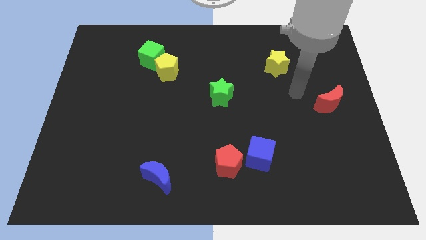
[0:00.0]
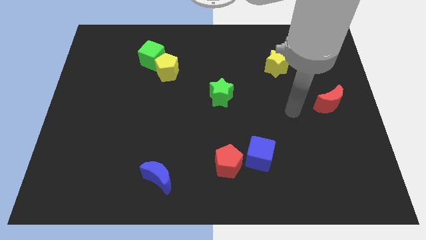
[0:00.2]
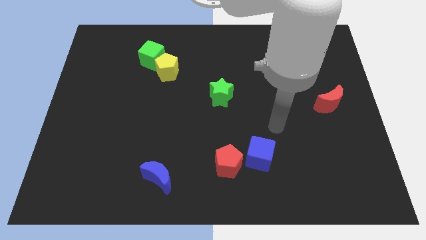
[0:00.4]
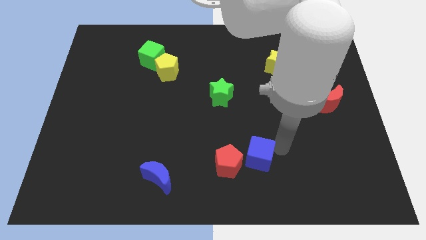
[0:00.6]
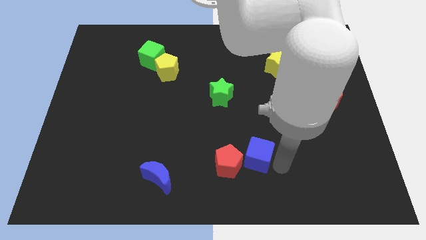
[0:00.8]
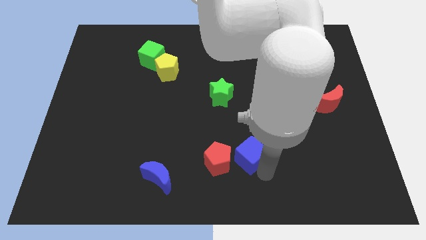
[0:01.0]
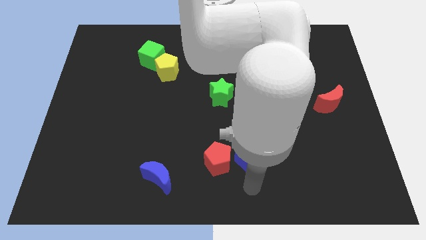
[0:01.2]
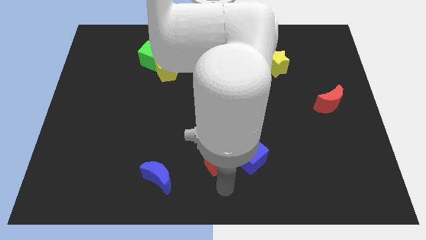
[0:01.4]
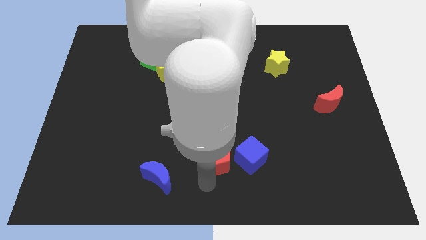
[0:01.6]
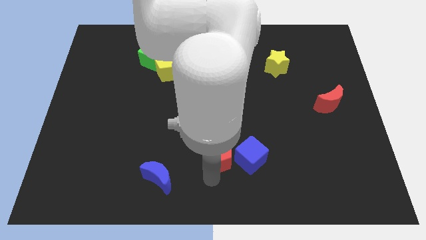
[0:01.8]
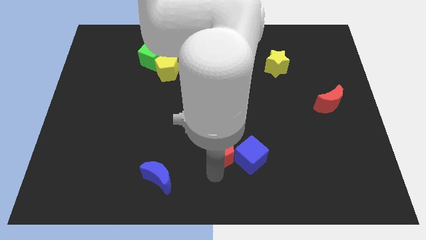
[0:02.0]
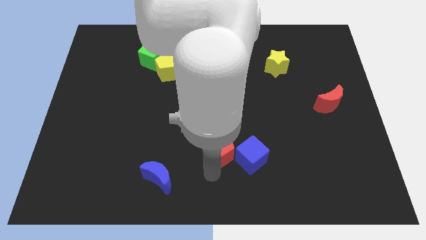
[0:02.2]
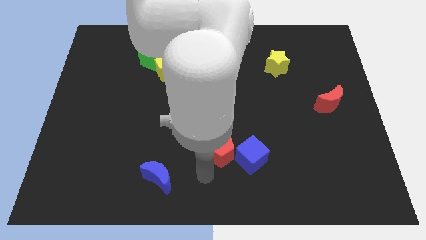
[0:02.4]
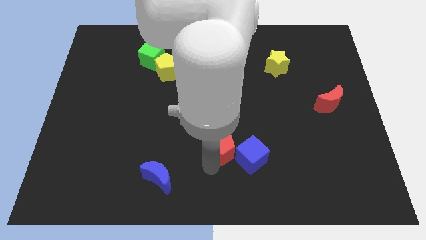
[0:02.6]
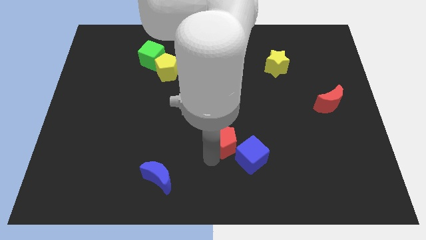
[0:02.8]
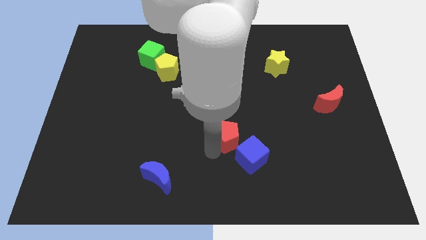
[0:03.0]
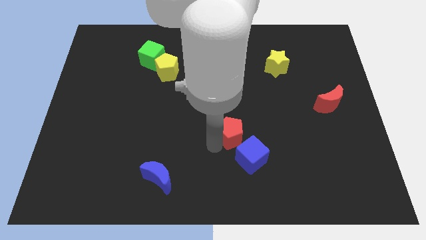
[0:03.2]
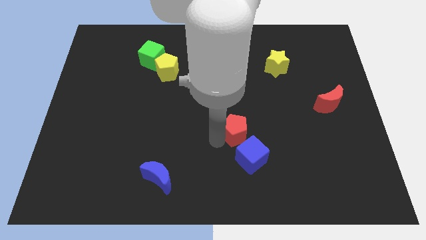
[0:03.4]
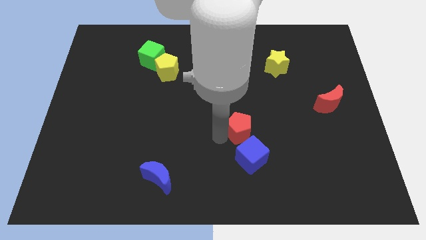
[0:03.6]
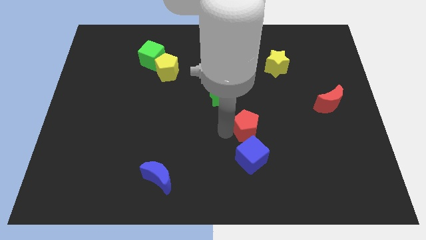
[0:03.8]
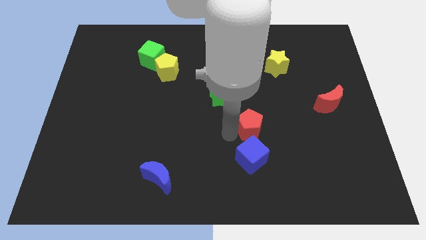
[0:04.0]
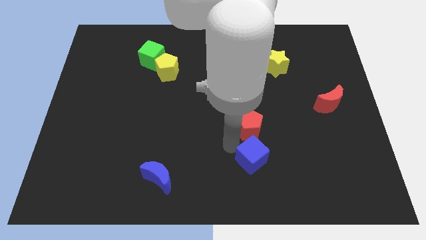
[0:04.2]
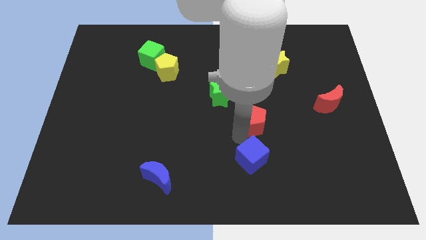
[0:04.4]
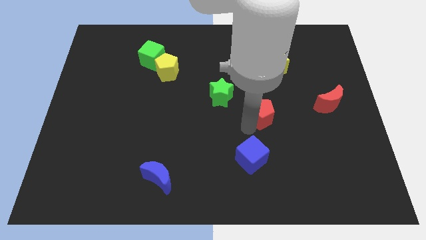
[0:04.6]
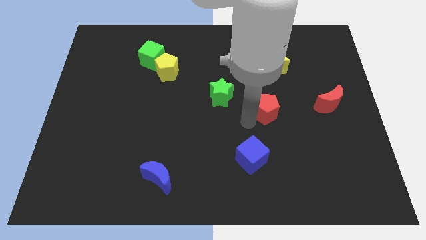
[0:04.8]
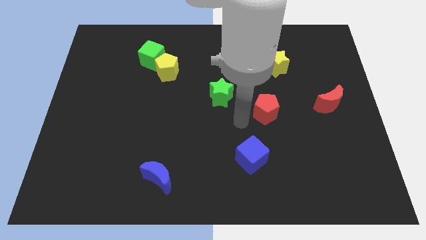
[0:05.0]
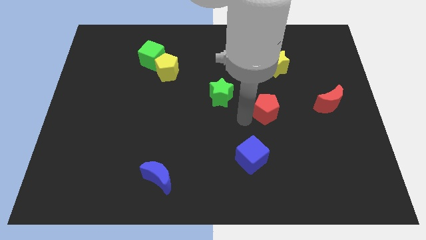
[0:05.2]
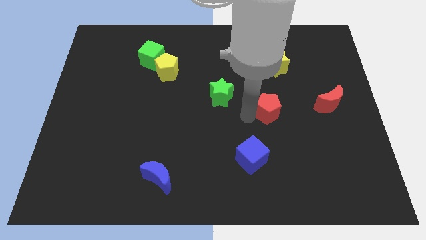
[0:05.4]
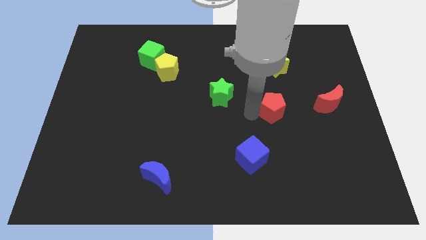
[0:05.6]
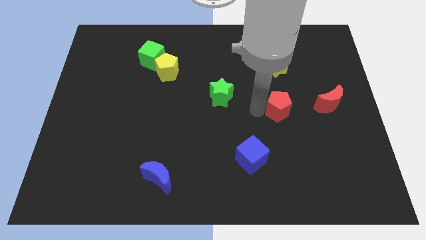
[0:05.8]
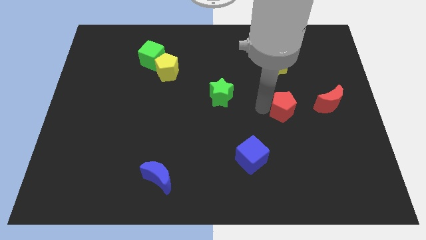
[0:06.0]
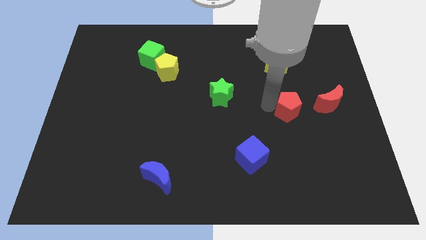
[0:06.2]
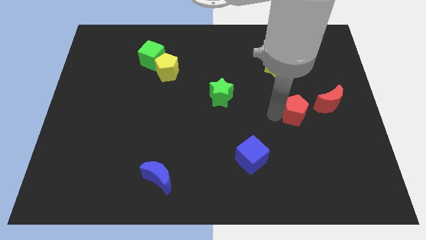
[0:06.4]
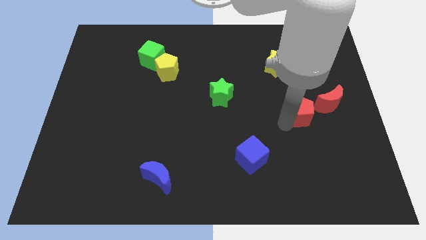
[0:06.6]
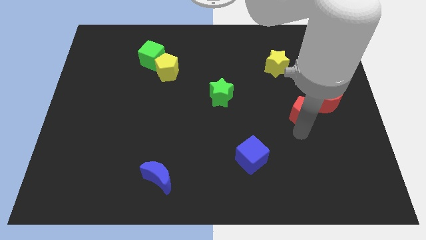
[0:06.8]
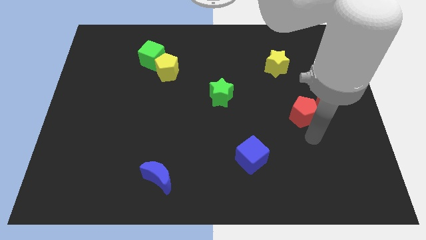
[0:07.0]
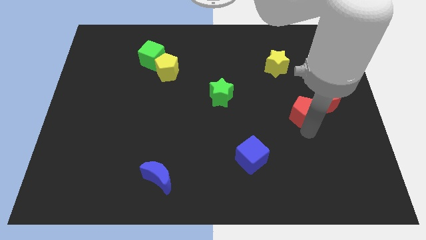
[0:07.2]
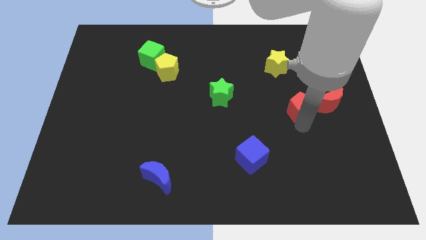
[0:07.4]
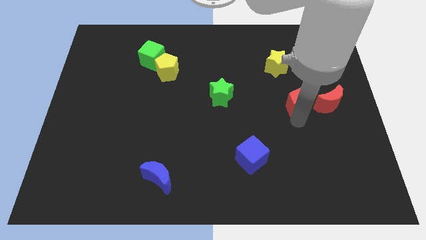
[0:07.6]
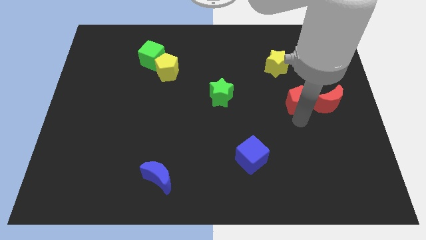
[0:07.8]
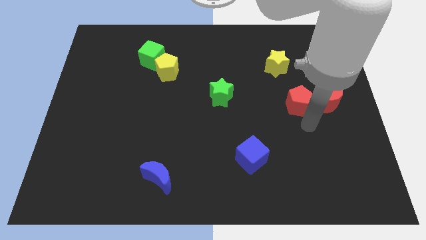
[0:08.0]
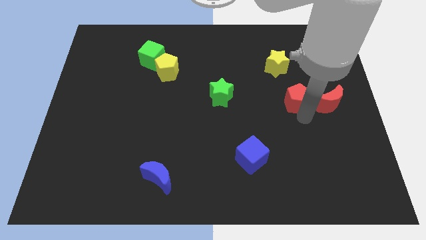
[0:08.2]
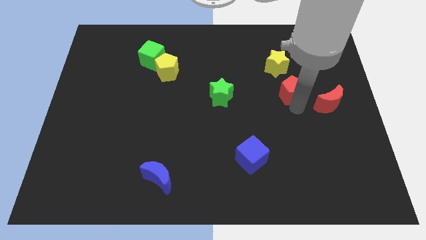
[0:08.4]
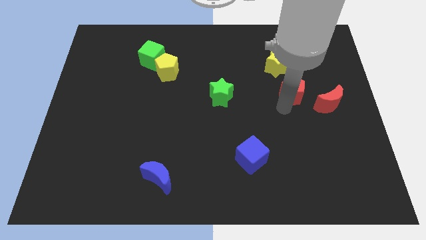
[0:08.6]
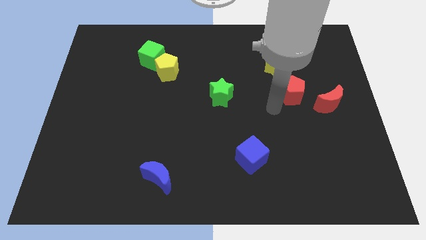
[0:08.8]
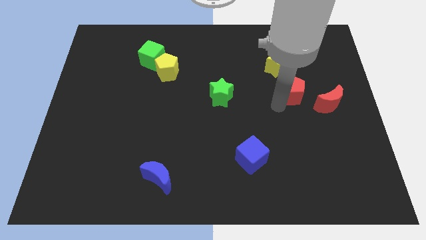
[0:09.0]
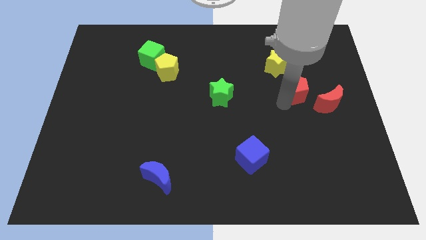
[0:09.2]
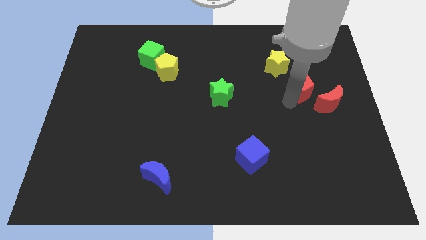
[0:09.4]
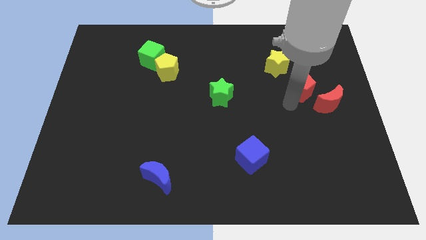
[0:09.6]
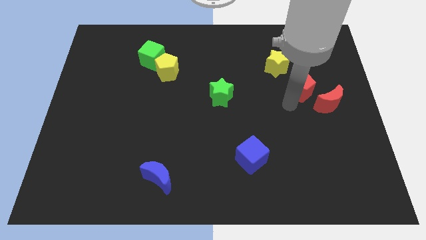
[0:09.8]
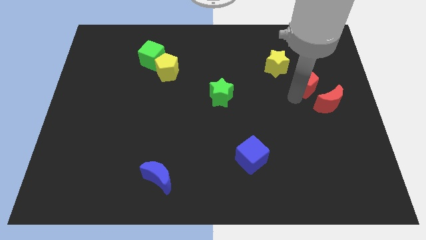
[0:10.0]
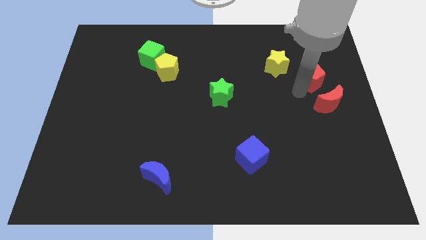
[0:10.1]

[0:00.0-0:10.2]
slide the red pentagon to the right side of the yellow star

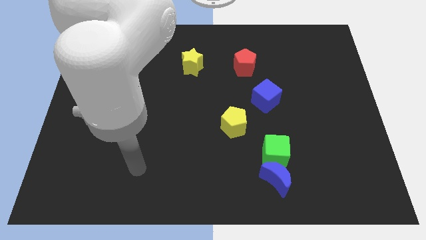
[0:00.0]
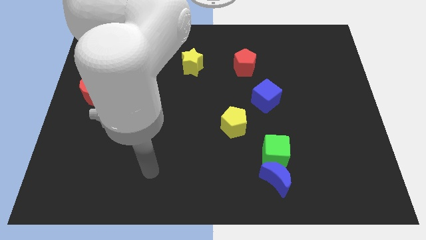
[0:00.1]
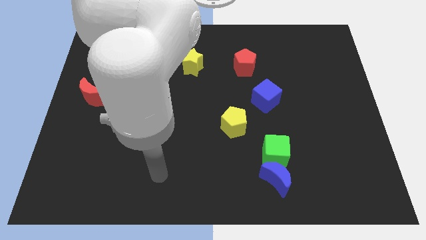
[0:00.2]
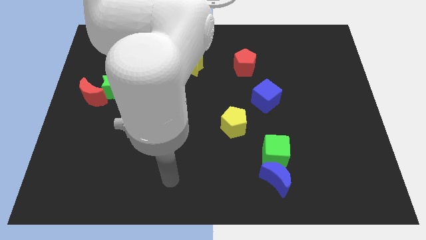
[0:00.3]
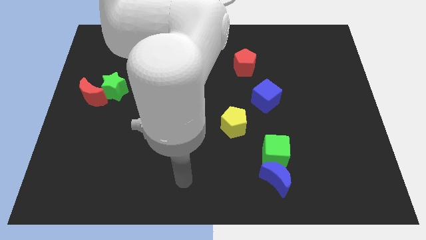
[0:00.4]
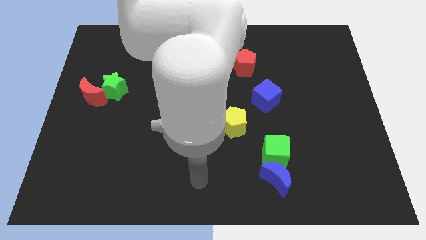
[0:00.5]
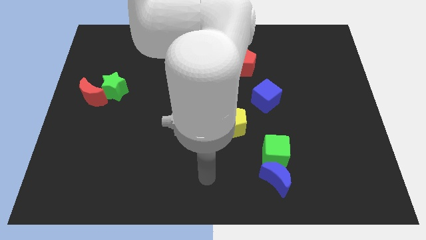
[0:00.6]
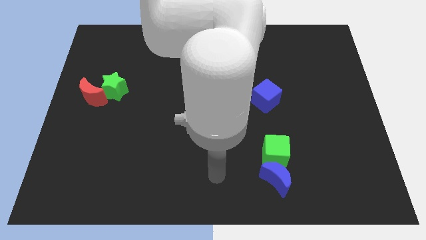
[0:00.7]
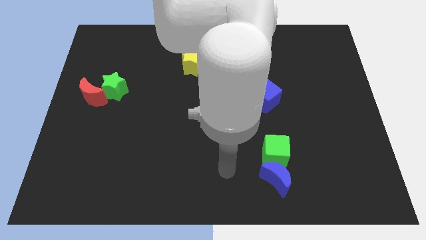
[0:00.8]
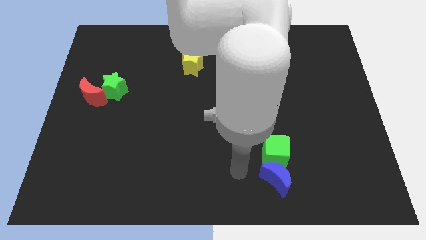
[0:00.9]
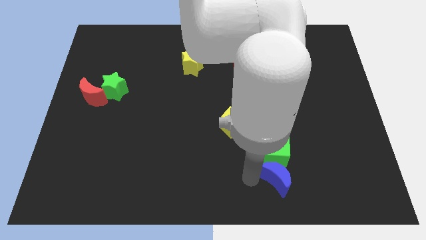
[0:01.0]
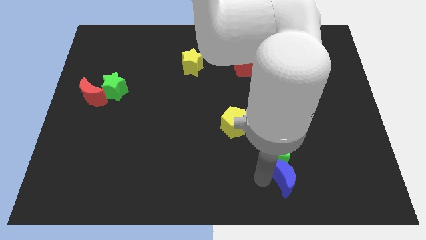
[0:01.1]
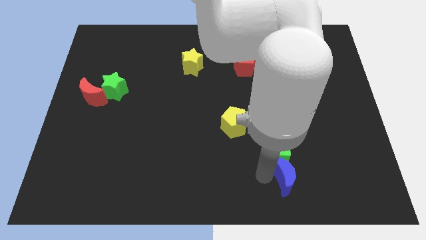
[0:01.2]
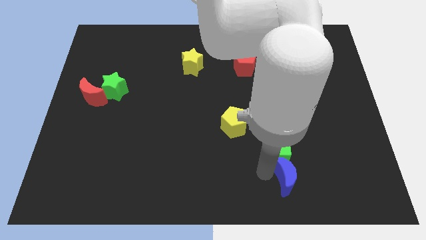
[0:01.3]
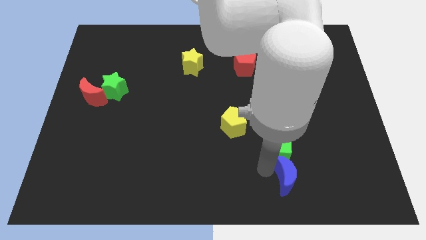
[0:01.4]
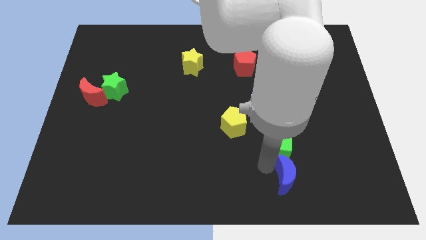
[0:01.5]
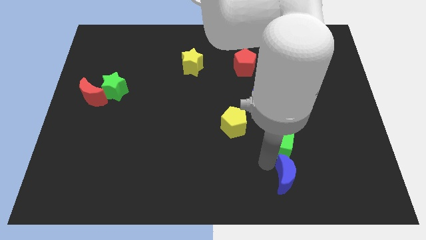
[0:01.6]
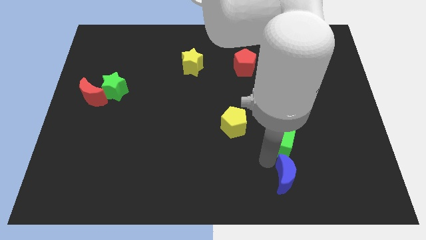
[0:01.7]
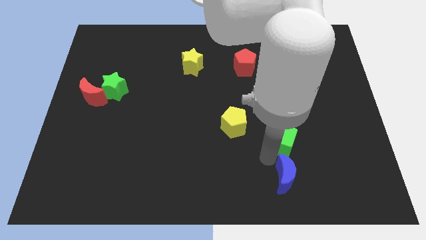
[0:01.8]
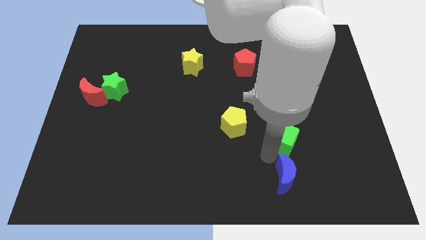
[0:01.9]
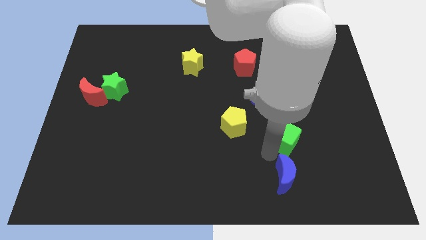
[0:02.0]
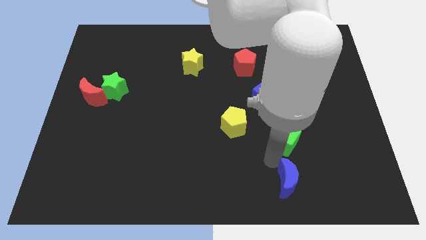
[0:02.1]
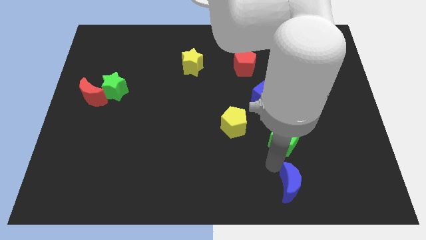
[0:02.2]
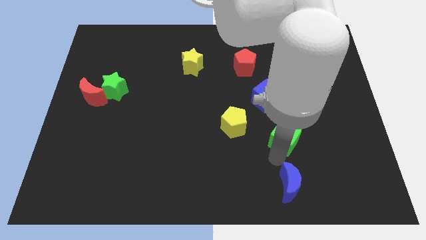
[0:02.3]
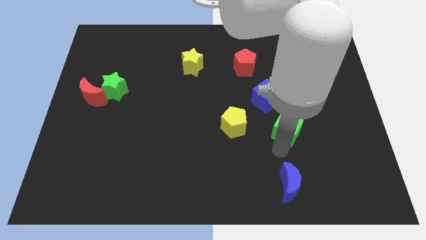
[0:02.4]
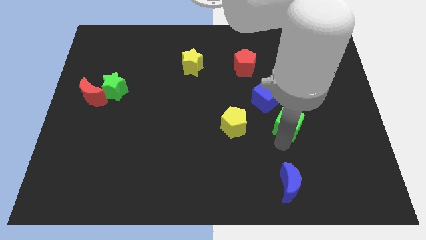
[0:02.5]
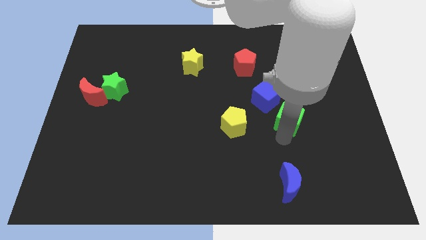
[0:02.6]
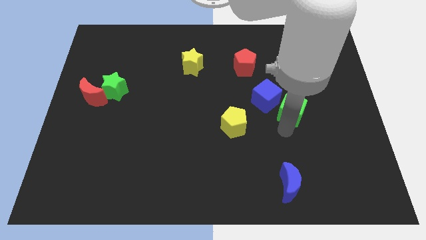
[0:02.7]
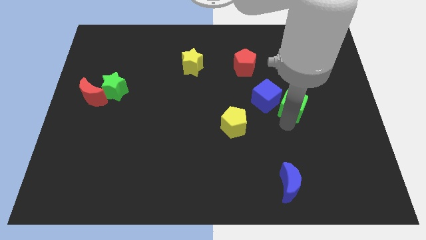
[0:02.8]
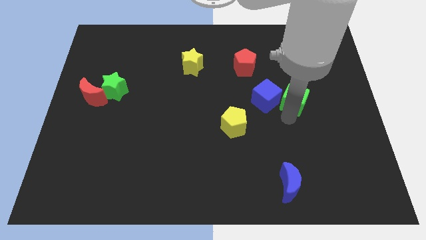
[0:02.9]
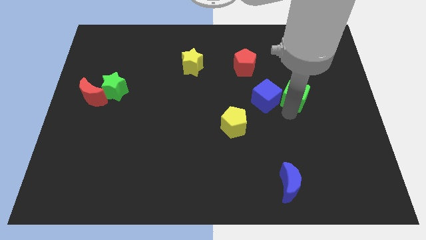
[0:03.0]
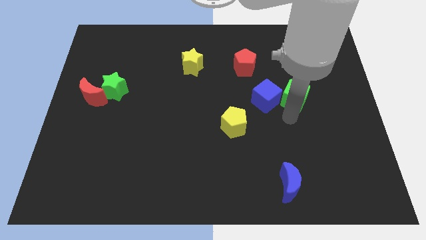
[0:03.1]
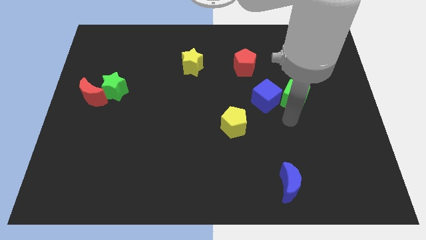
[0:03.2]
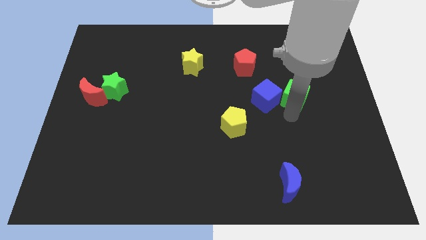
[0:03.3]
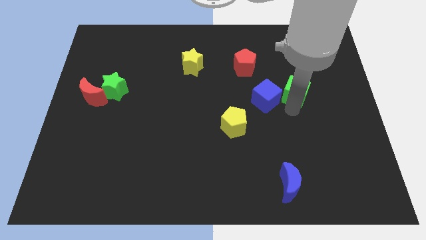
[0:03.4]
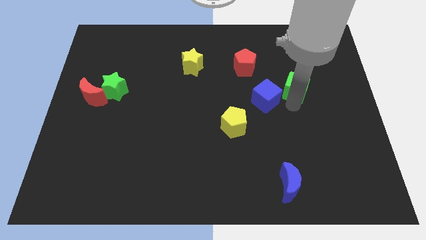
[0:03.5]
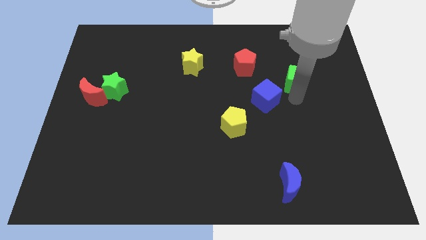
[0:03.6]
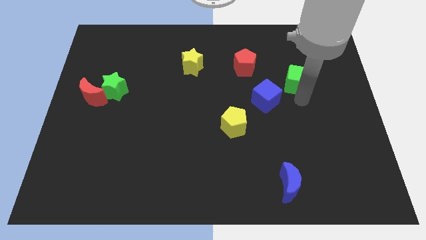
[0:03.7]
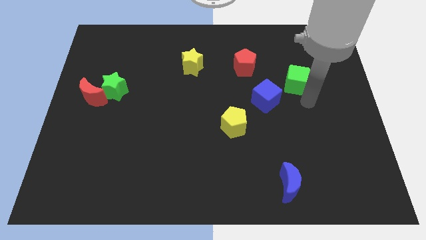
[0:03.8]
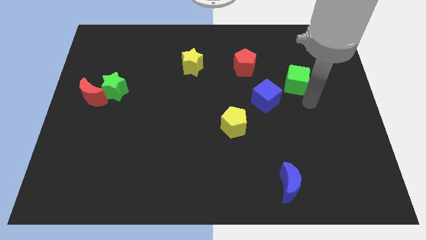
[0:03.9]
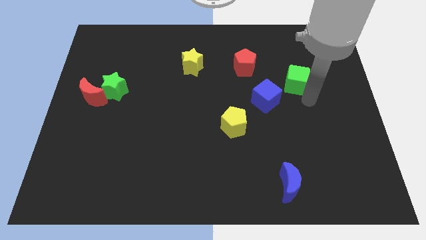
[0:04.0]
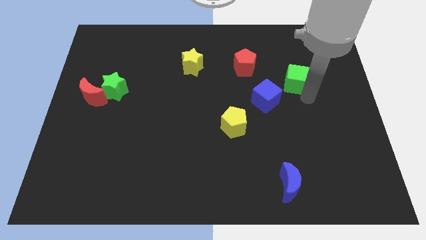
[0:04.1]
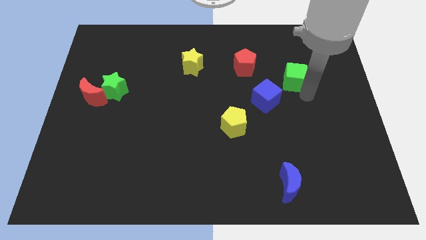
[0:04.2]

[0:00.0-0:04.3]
push the green cube to the right side of the red pentagon
